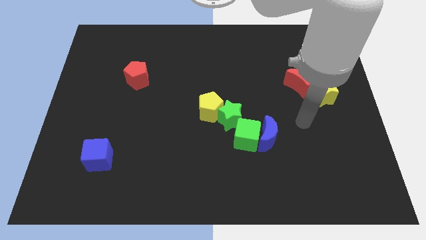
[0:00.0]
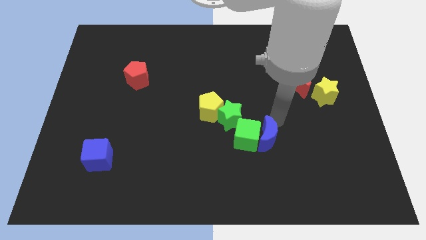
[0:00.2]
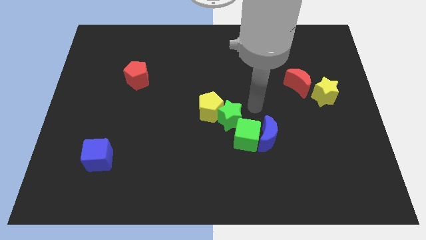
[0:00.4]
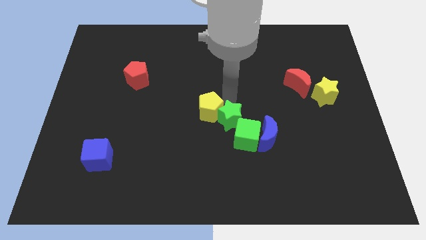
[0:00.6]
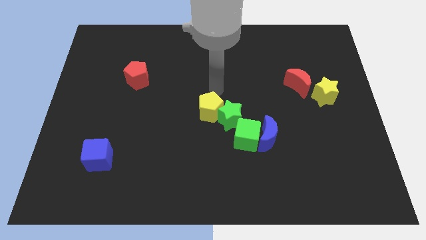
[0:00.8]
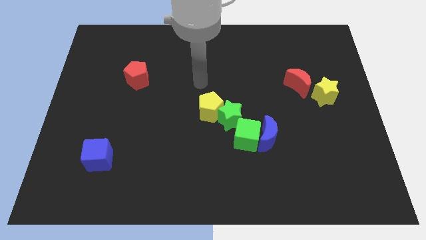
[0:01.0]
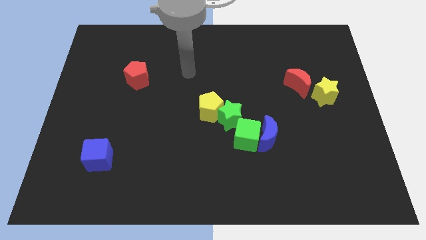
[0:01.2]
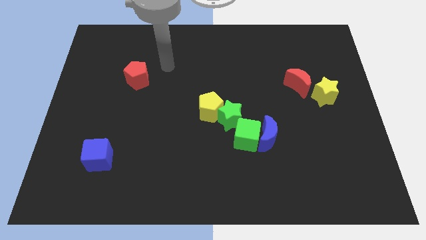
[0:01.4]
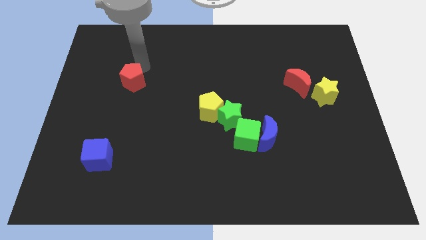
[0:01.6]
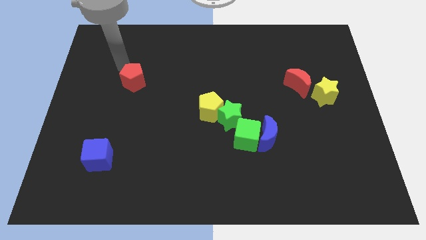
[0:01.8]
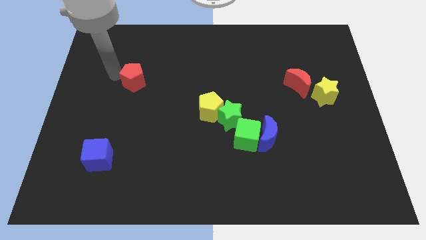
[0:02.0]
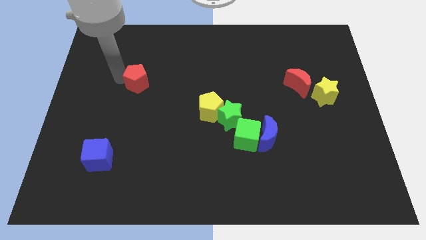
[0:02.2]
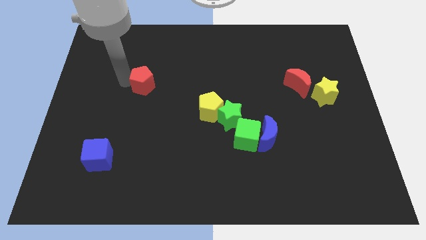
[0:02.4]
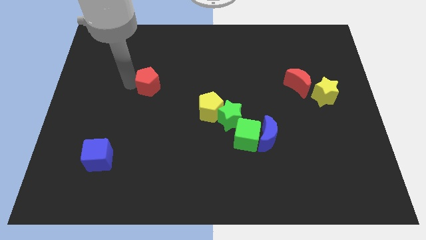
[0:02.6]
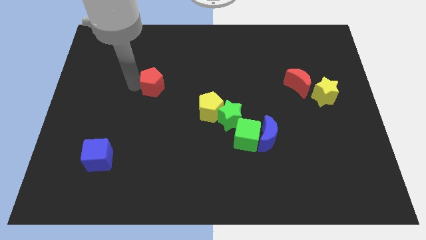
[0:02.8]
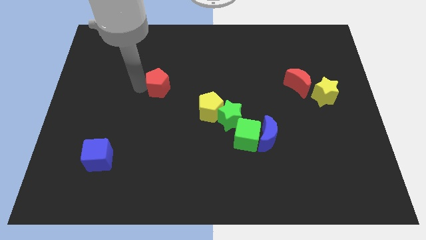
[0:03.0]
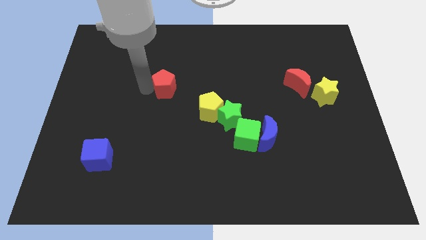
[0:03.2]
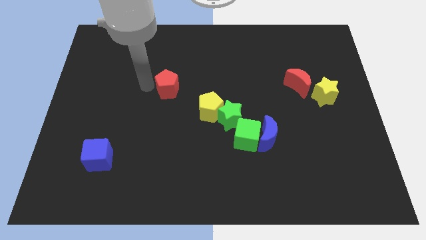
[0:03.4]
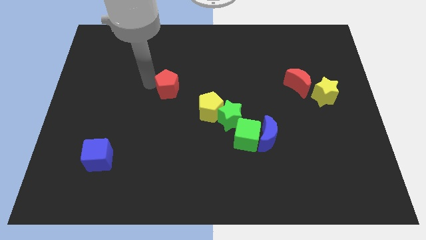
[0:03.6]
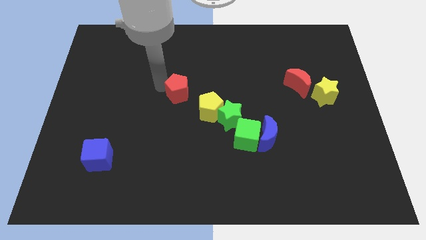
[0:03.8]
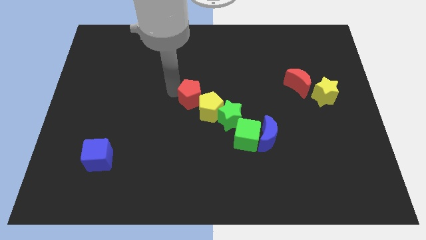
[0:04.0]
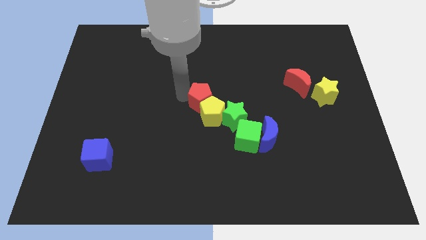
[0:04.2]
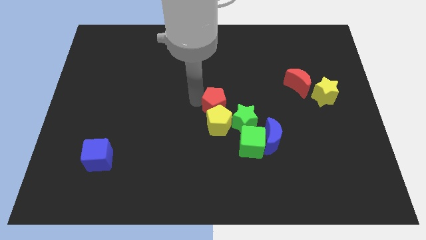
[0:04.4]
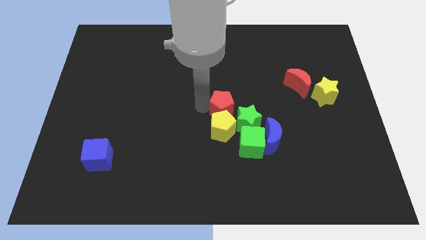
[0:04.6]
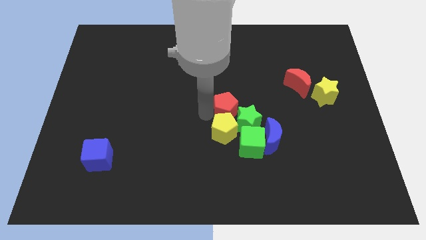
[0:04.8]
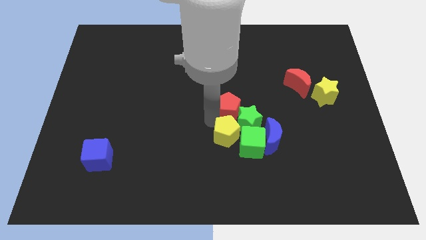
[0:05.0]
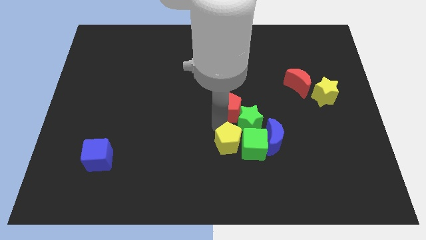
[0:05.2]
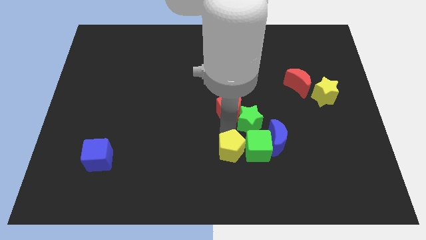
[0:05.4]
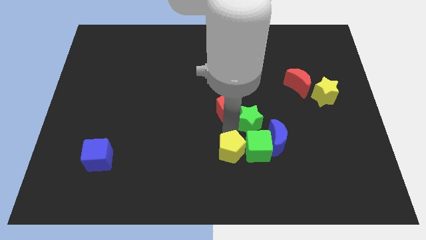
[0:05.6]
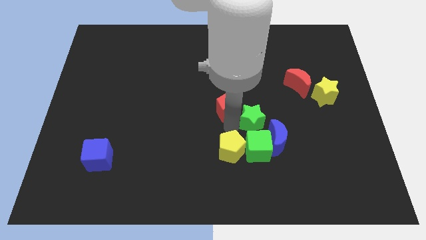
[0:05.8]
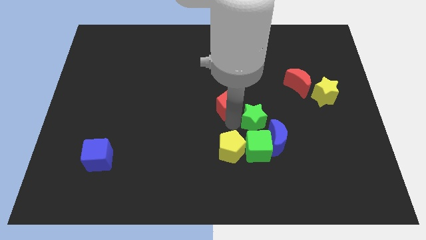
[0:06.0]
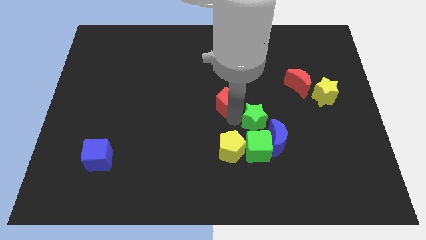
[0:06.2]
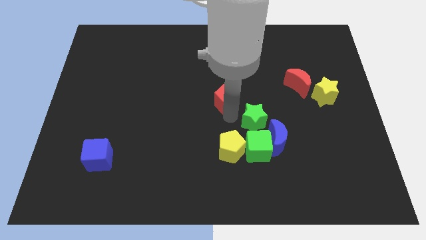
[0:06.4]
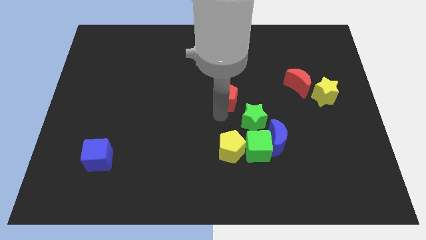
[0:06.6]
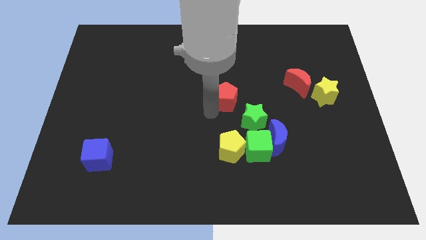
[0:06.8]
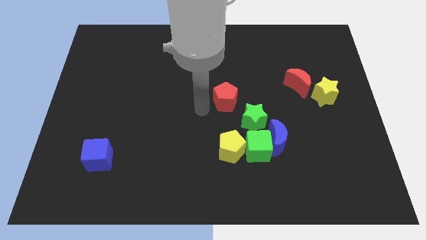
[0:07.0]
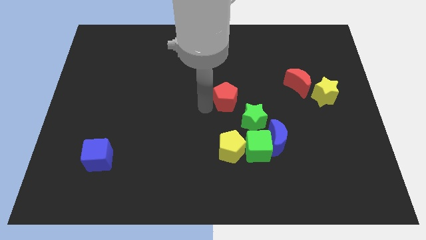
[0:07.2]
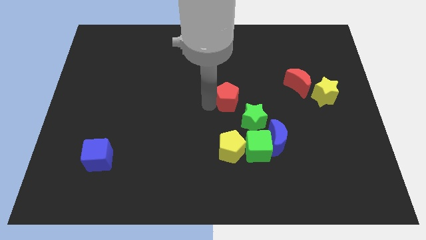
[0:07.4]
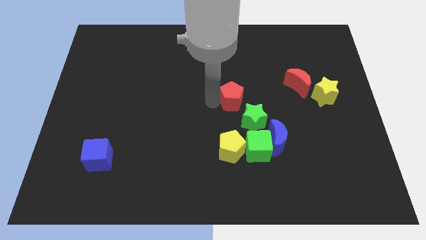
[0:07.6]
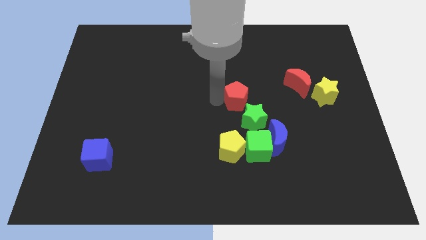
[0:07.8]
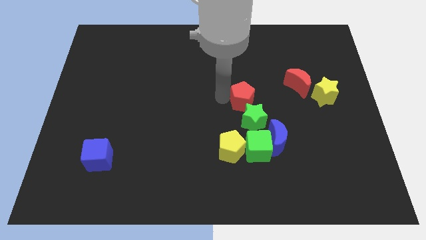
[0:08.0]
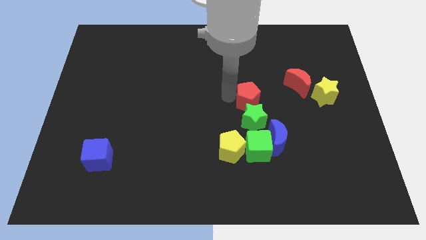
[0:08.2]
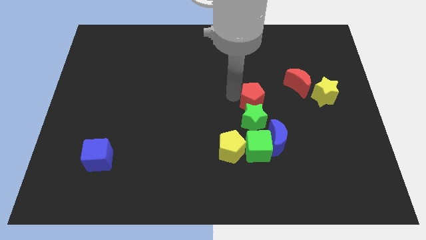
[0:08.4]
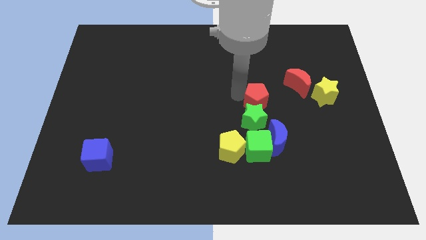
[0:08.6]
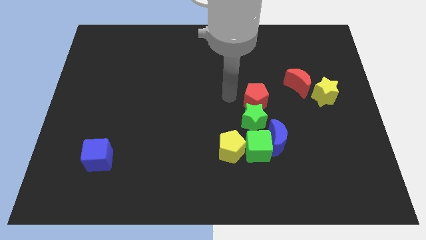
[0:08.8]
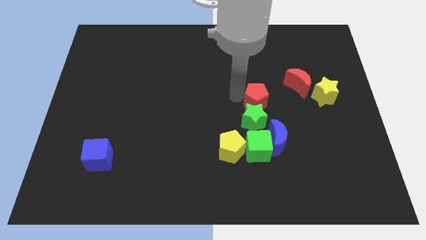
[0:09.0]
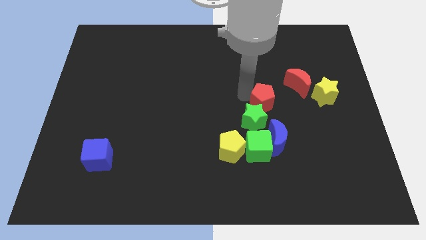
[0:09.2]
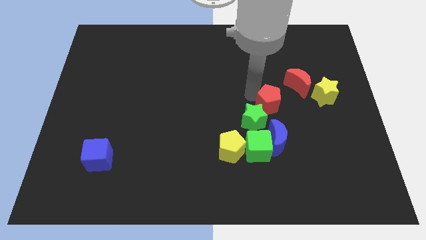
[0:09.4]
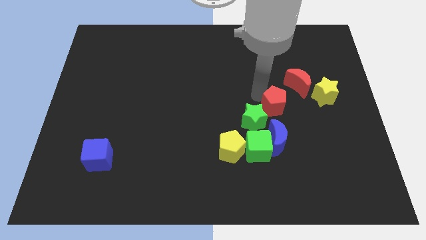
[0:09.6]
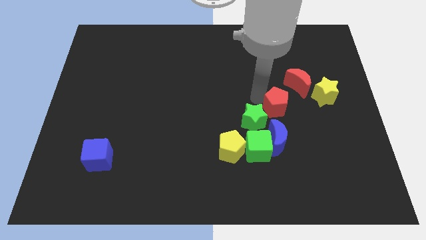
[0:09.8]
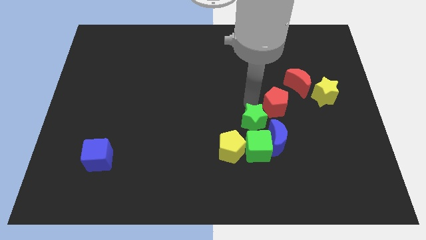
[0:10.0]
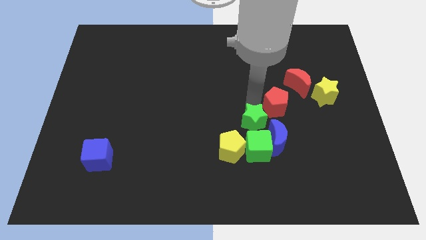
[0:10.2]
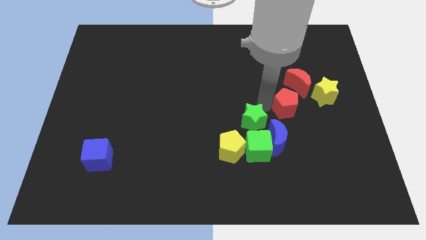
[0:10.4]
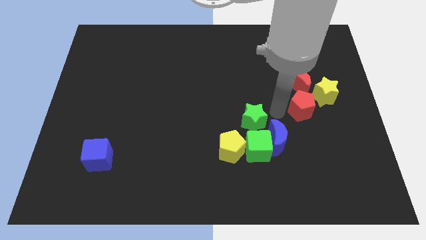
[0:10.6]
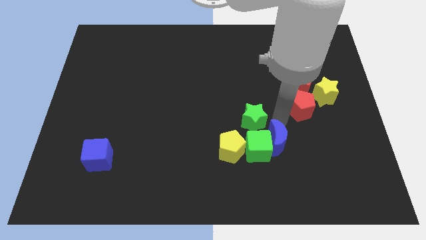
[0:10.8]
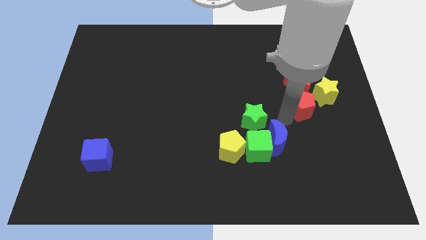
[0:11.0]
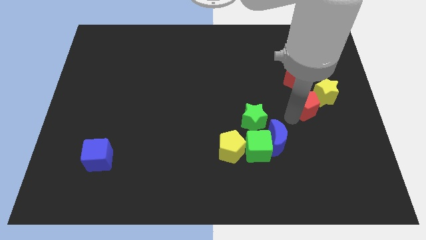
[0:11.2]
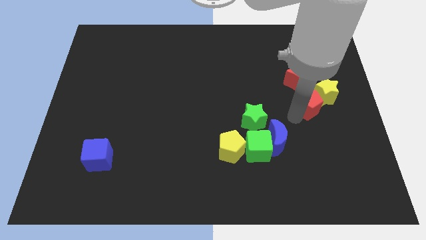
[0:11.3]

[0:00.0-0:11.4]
move the red pentagon to the yellow star

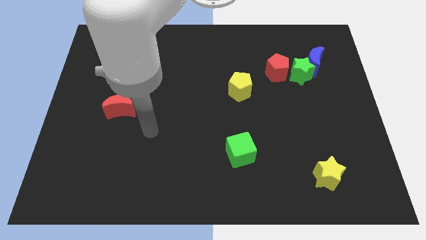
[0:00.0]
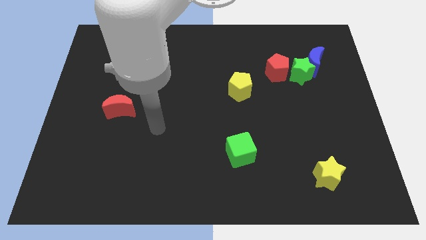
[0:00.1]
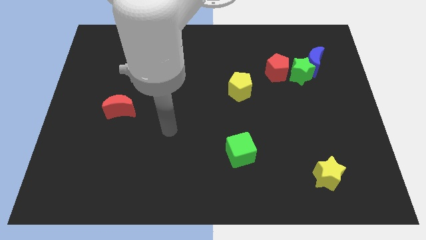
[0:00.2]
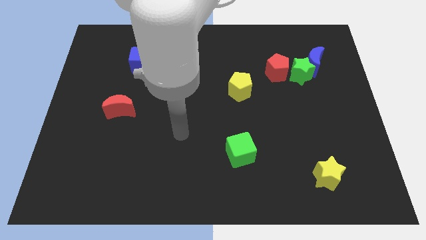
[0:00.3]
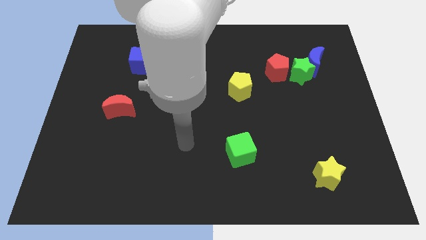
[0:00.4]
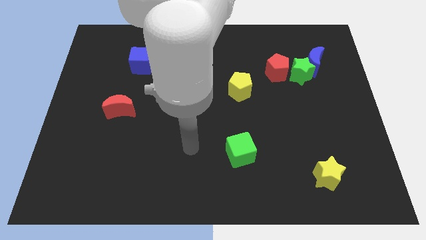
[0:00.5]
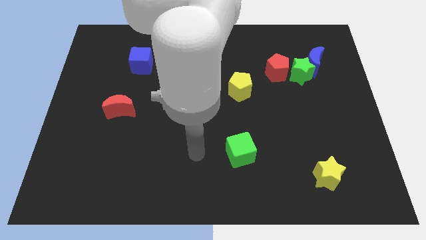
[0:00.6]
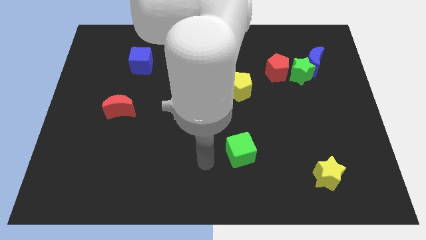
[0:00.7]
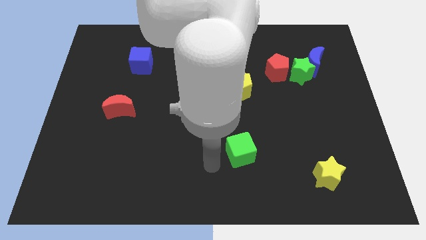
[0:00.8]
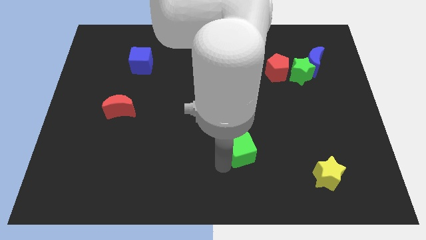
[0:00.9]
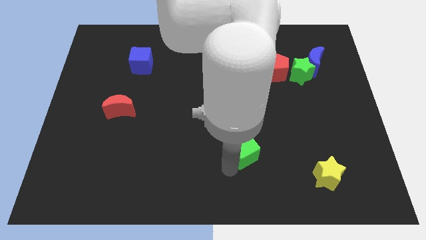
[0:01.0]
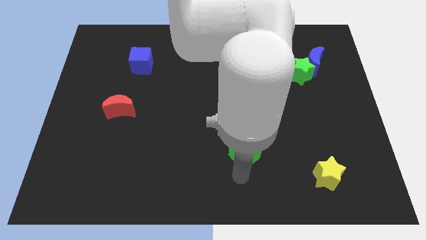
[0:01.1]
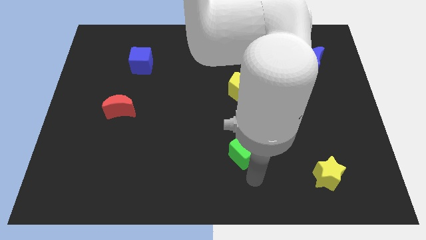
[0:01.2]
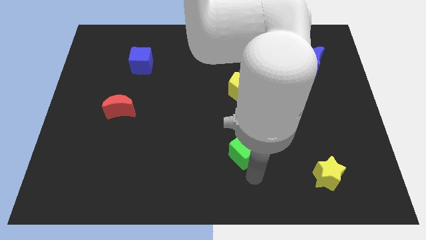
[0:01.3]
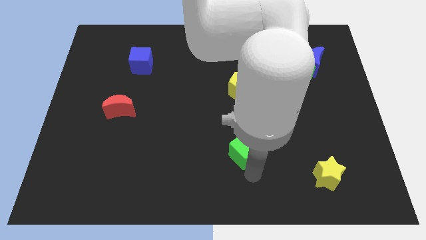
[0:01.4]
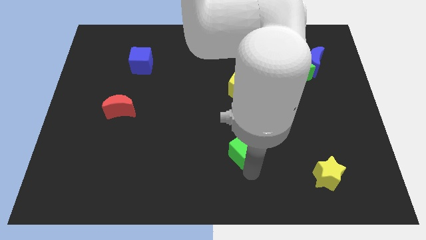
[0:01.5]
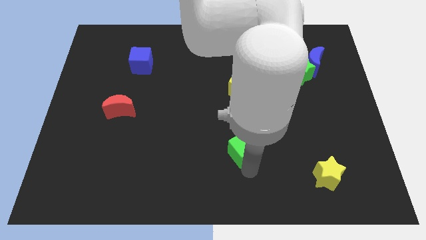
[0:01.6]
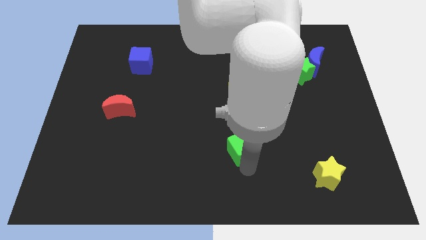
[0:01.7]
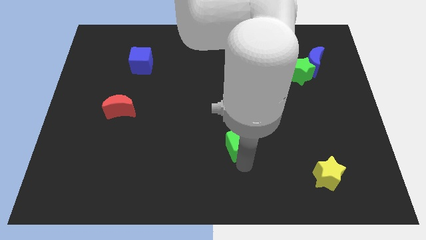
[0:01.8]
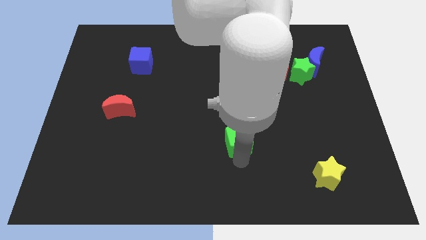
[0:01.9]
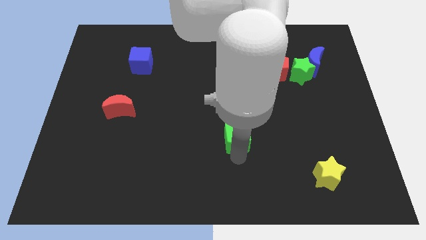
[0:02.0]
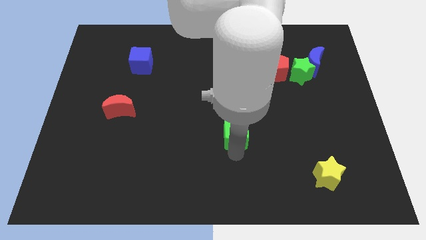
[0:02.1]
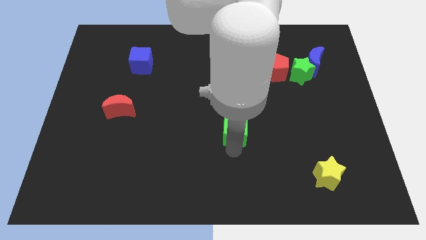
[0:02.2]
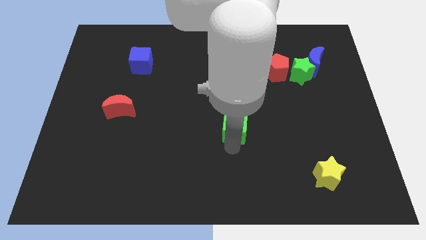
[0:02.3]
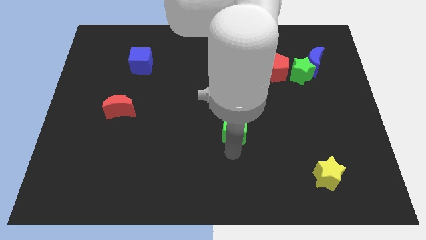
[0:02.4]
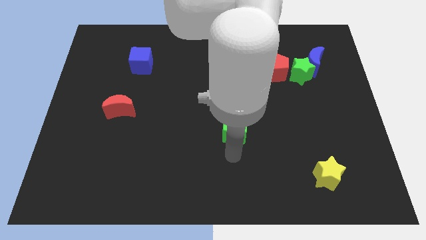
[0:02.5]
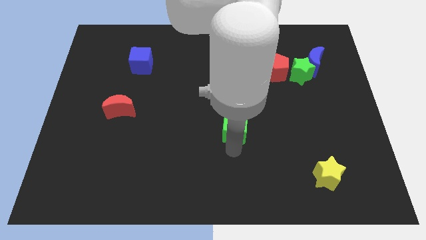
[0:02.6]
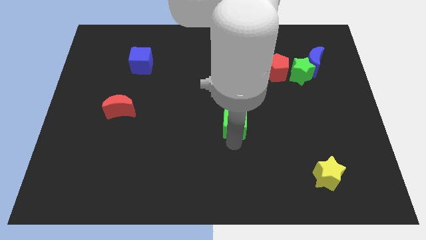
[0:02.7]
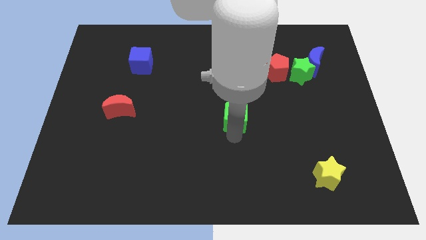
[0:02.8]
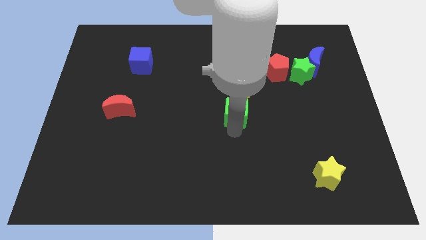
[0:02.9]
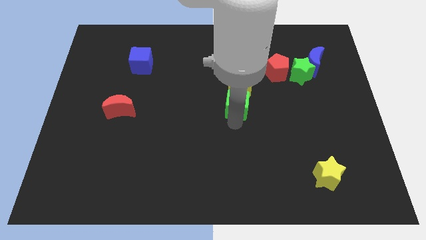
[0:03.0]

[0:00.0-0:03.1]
push the green cube towards the yellow pentagon
